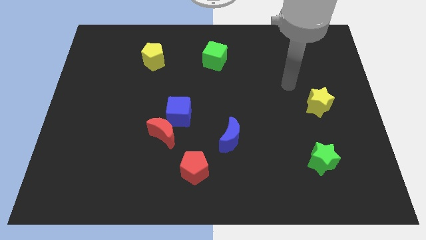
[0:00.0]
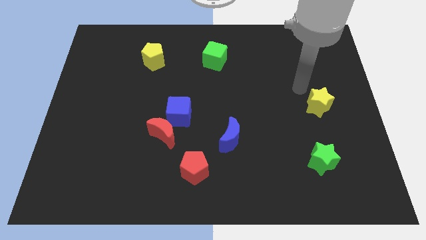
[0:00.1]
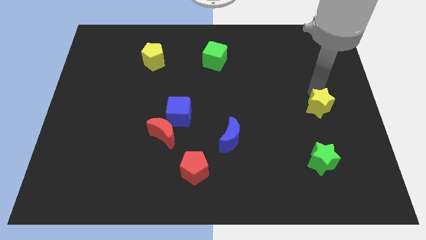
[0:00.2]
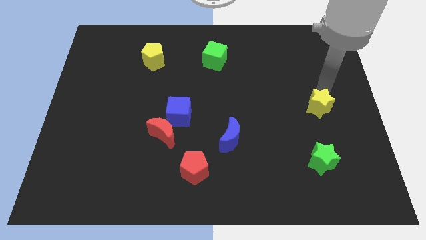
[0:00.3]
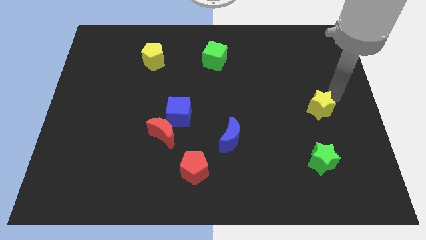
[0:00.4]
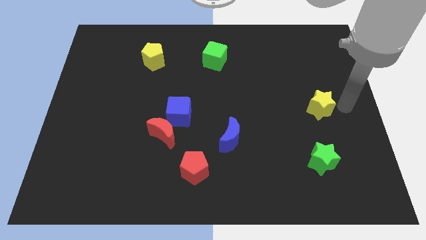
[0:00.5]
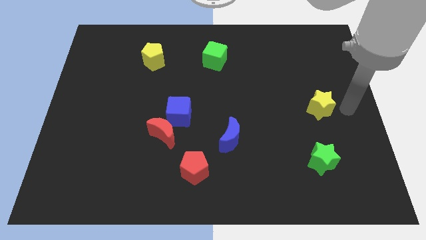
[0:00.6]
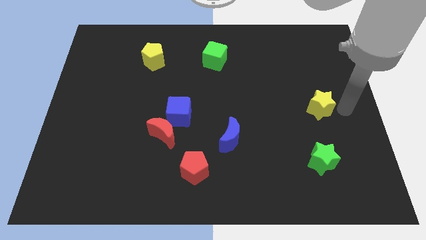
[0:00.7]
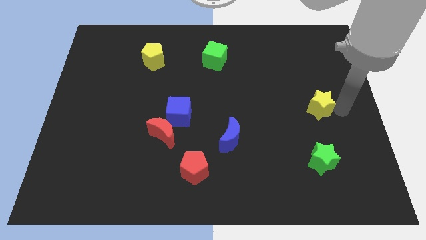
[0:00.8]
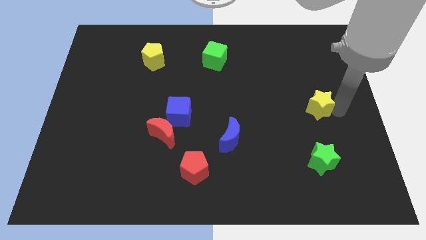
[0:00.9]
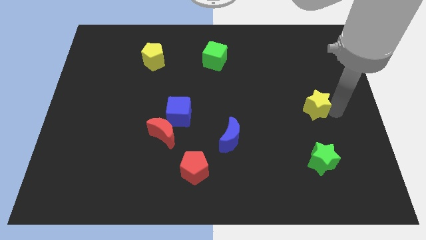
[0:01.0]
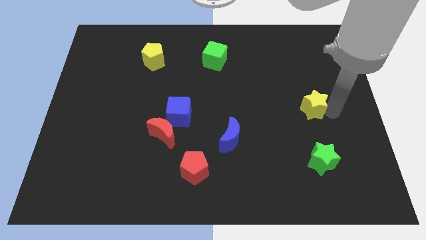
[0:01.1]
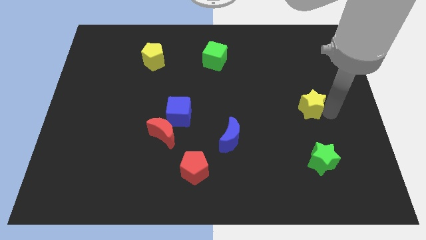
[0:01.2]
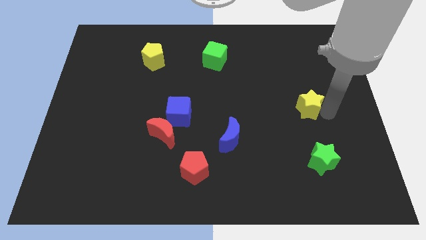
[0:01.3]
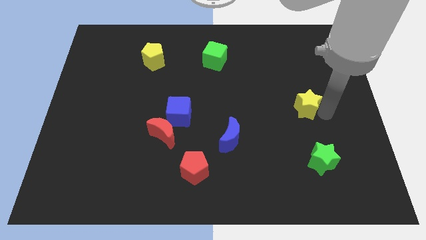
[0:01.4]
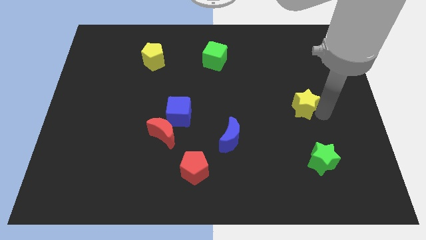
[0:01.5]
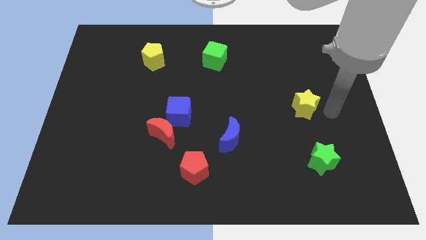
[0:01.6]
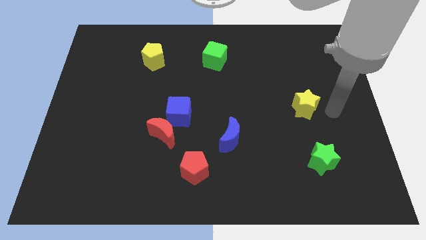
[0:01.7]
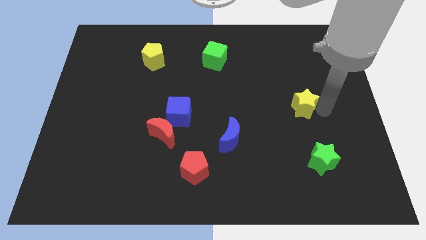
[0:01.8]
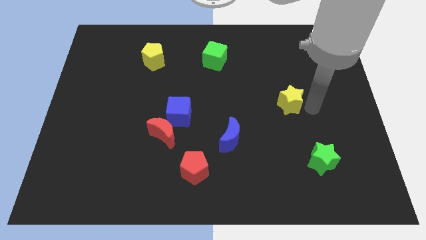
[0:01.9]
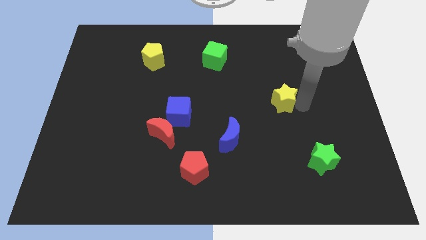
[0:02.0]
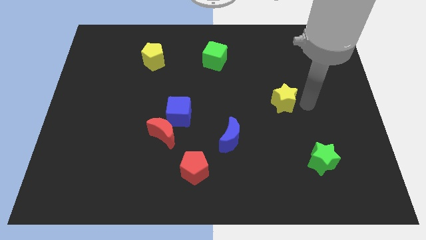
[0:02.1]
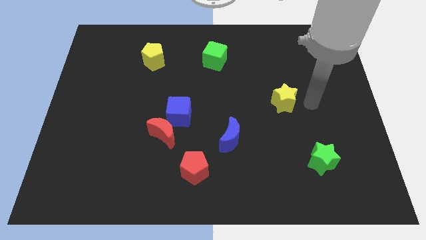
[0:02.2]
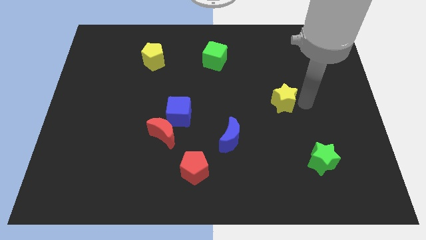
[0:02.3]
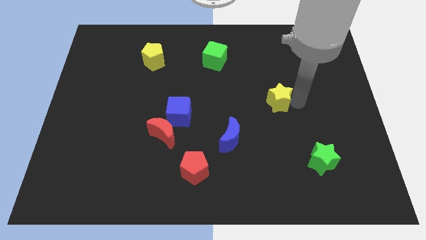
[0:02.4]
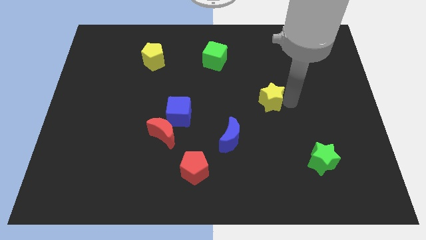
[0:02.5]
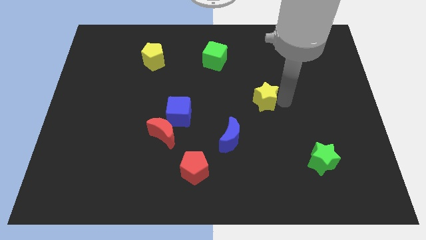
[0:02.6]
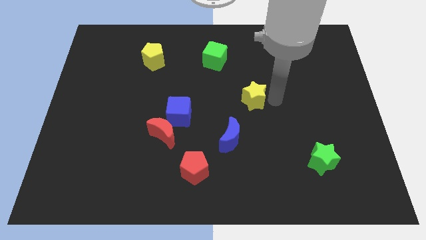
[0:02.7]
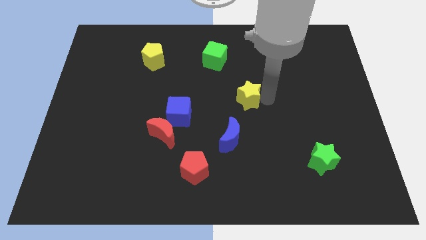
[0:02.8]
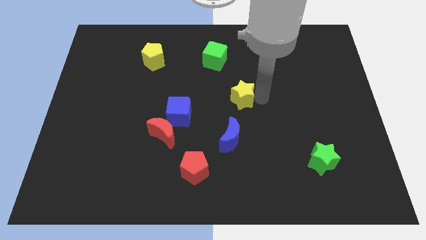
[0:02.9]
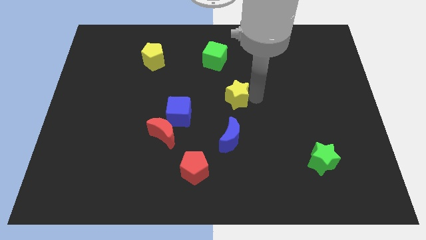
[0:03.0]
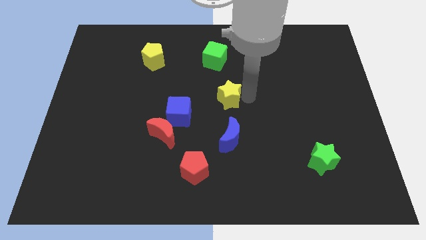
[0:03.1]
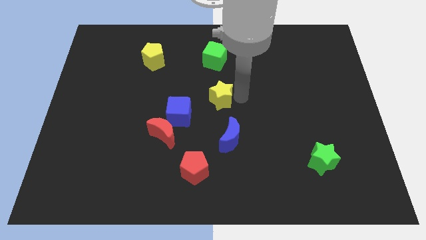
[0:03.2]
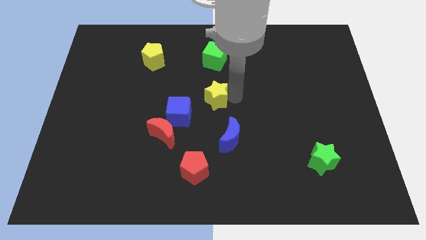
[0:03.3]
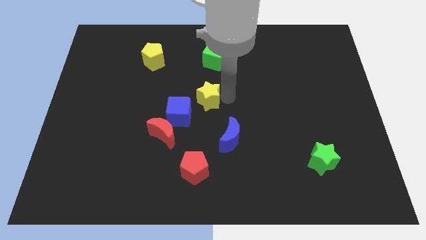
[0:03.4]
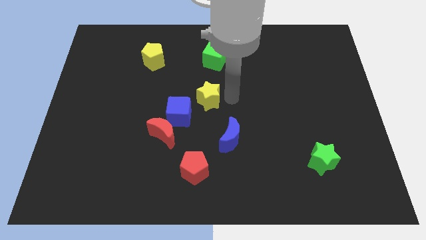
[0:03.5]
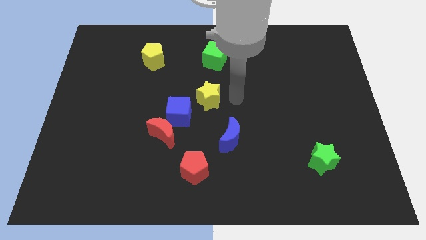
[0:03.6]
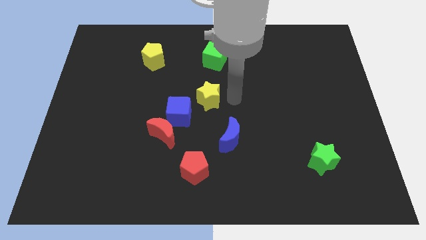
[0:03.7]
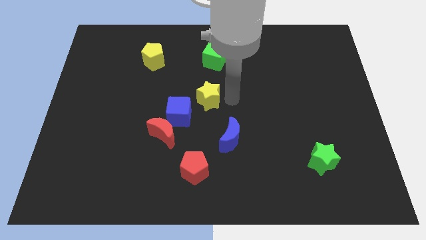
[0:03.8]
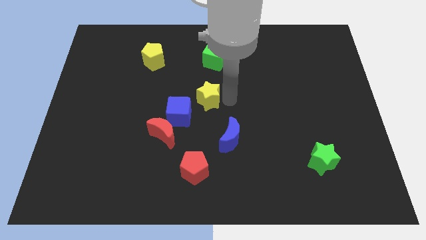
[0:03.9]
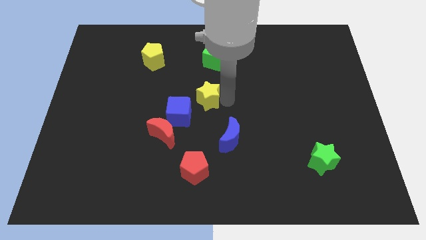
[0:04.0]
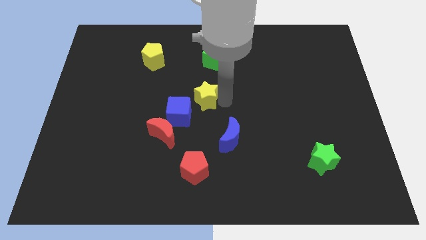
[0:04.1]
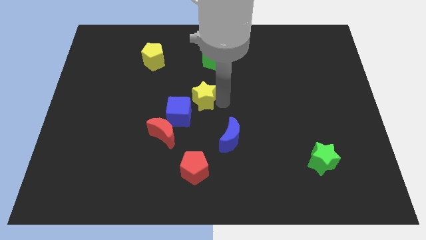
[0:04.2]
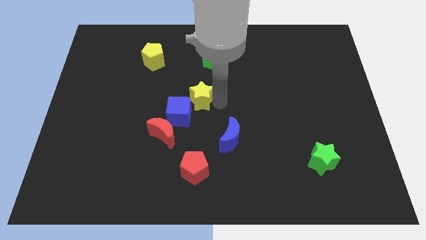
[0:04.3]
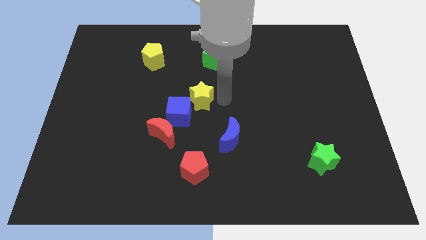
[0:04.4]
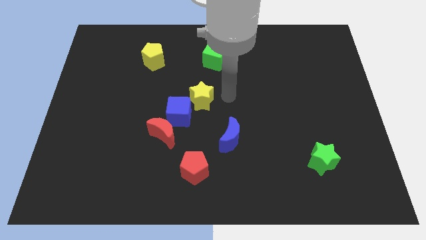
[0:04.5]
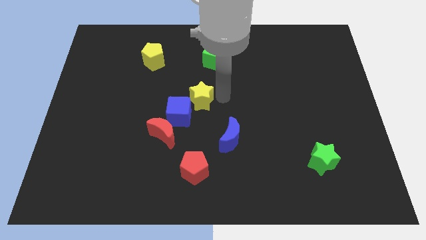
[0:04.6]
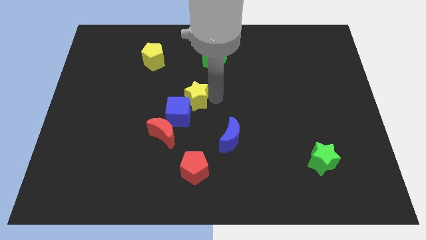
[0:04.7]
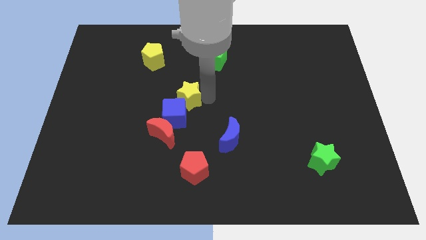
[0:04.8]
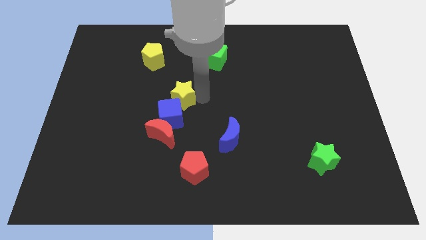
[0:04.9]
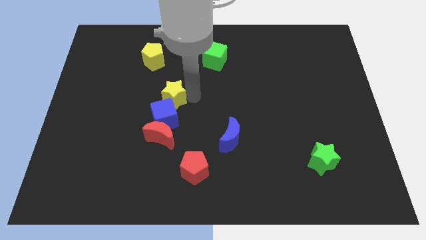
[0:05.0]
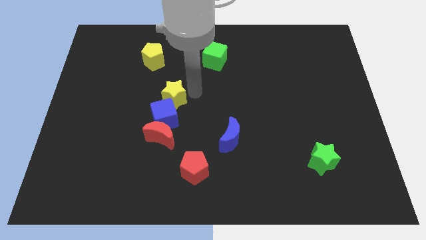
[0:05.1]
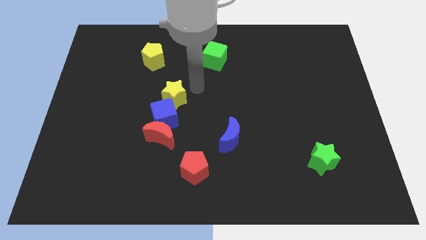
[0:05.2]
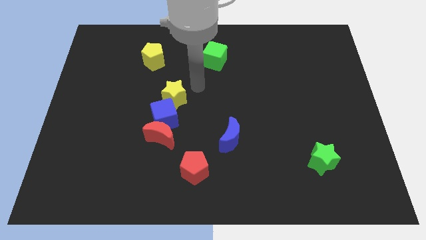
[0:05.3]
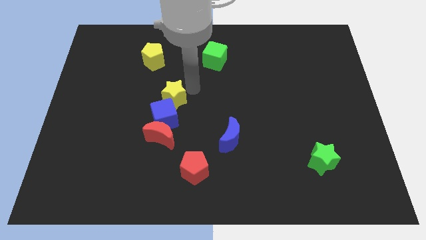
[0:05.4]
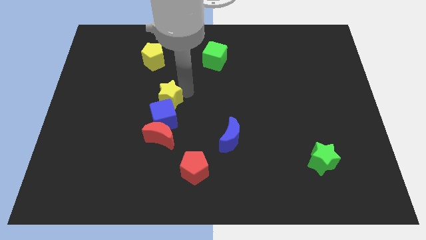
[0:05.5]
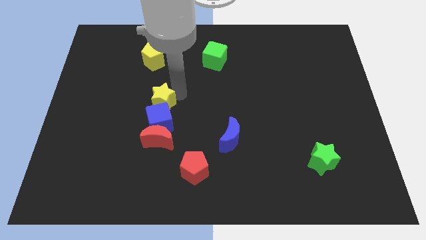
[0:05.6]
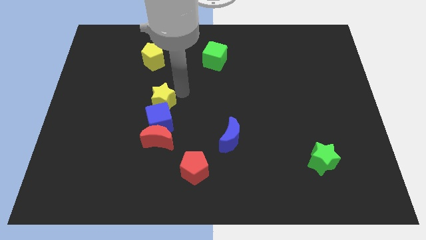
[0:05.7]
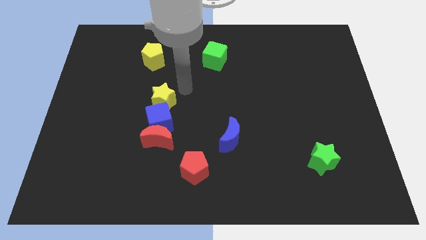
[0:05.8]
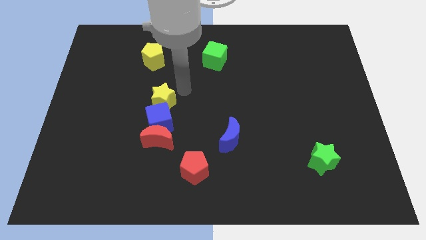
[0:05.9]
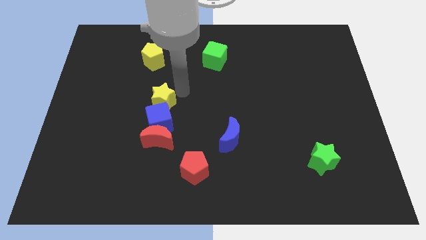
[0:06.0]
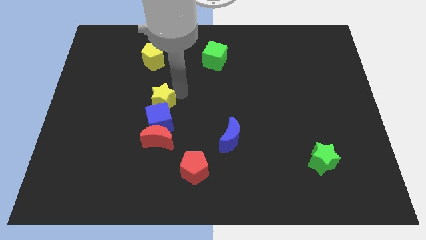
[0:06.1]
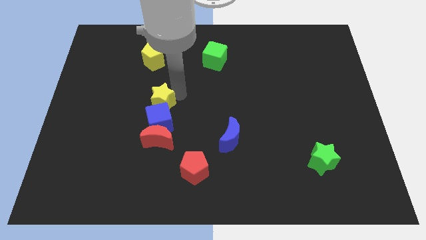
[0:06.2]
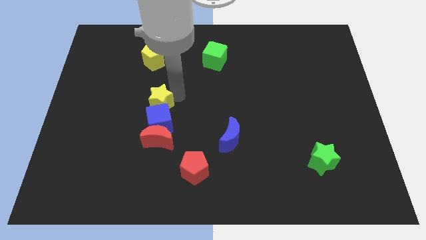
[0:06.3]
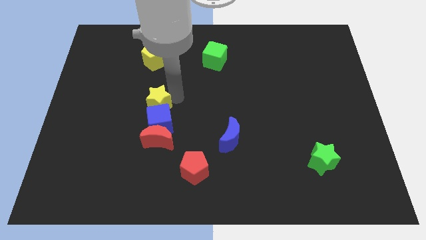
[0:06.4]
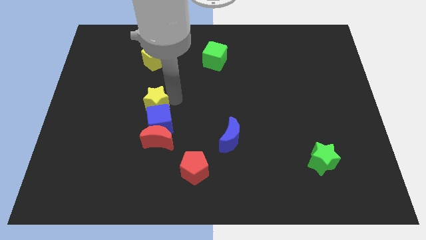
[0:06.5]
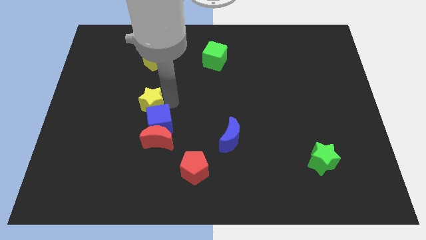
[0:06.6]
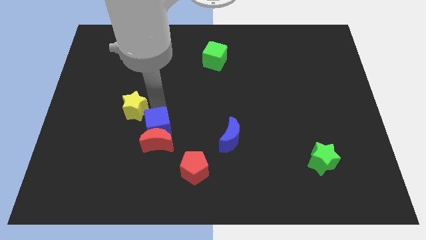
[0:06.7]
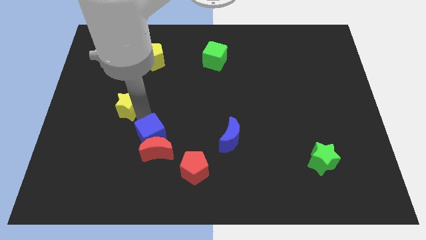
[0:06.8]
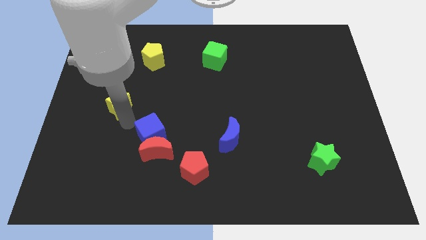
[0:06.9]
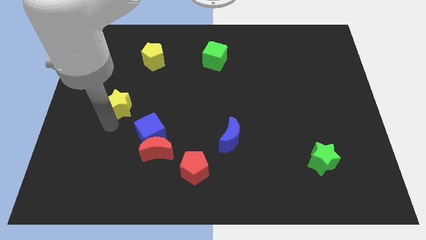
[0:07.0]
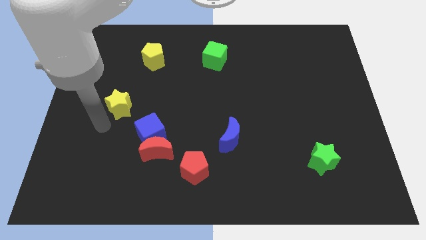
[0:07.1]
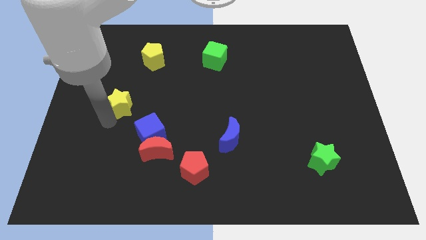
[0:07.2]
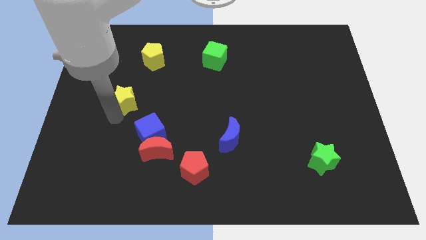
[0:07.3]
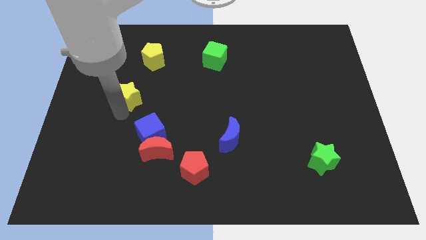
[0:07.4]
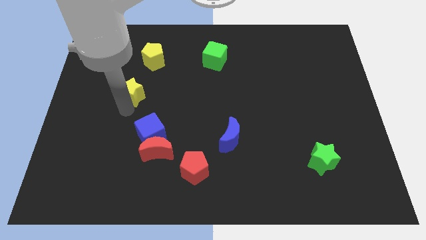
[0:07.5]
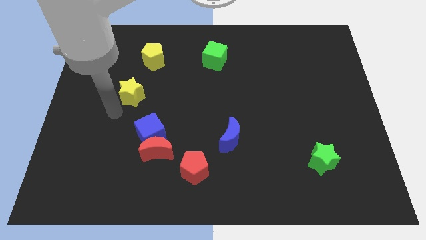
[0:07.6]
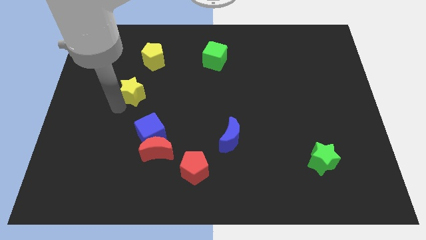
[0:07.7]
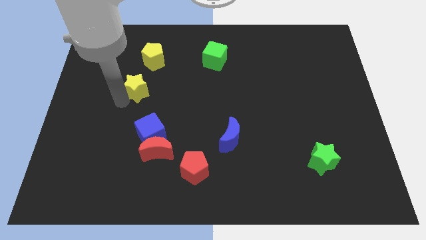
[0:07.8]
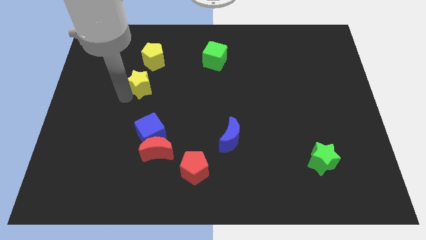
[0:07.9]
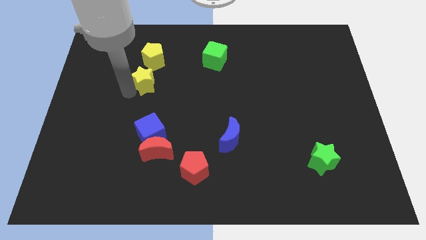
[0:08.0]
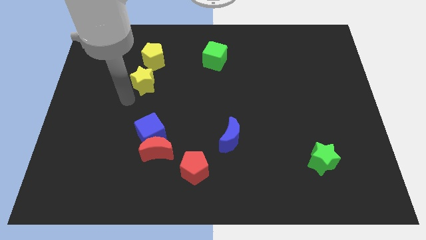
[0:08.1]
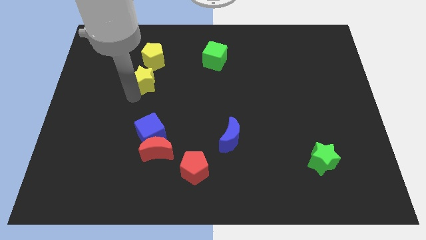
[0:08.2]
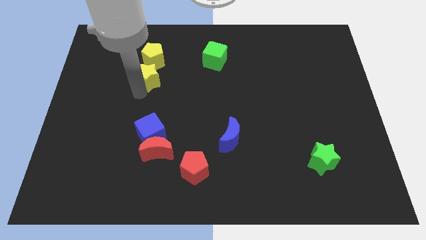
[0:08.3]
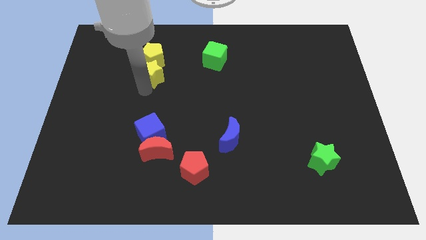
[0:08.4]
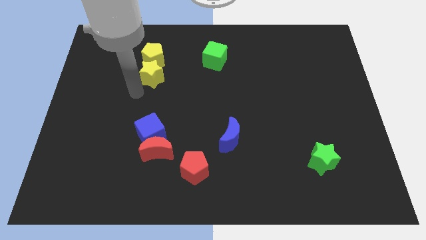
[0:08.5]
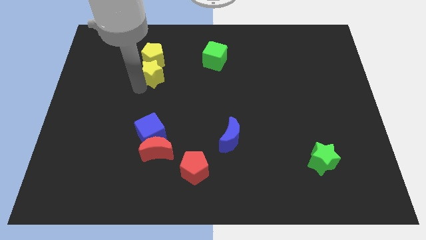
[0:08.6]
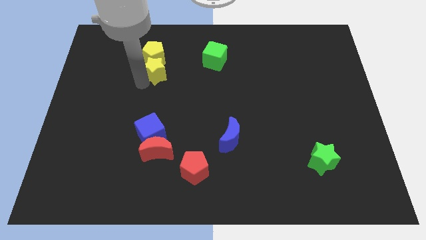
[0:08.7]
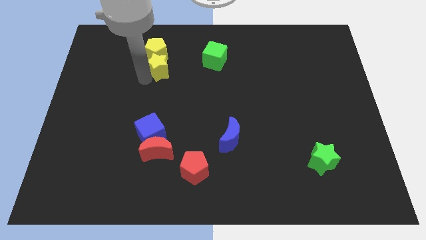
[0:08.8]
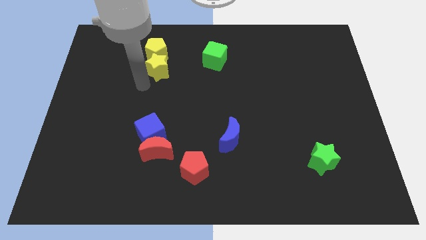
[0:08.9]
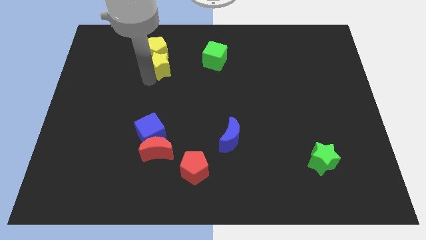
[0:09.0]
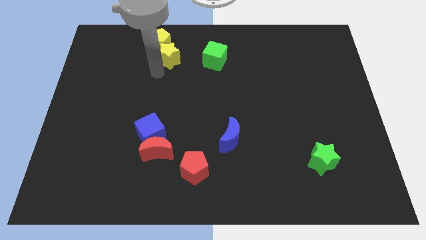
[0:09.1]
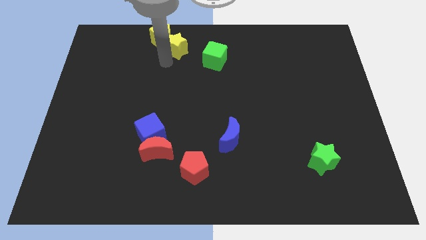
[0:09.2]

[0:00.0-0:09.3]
move the yellow star to the top
